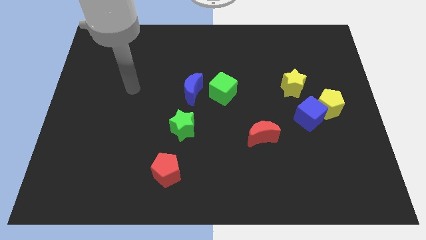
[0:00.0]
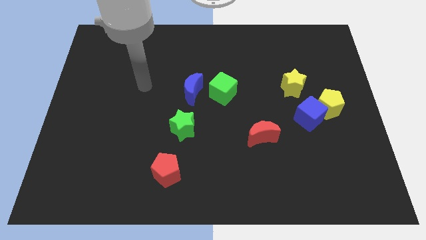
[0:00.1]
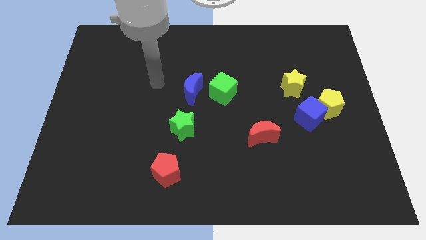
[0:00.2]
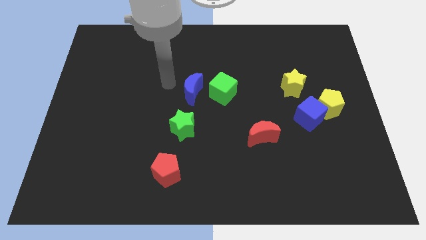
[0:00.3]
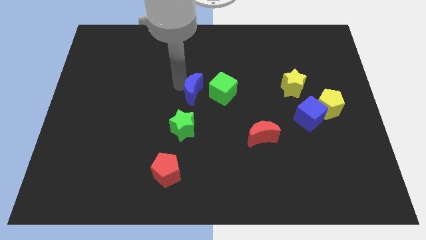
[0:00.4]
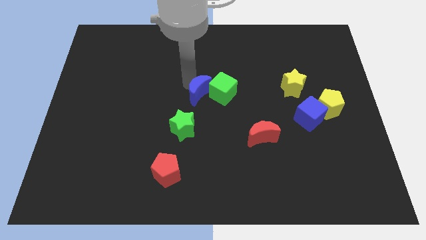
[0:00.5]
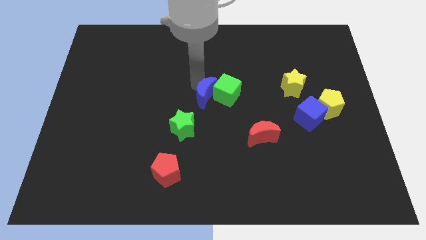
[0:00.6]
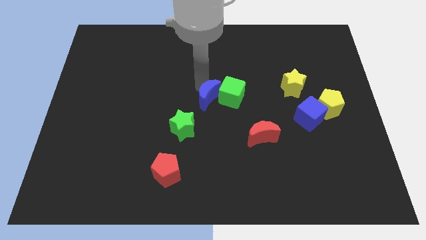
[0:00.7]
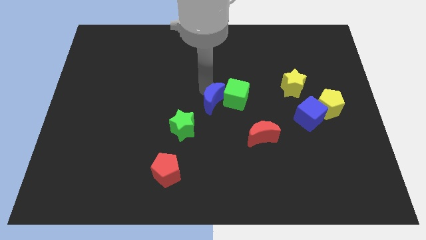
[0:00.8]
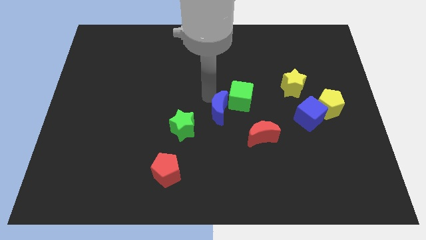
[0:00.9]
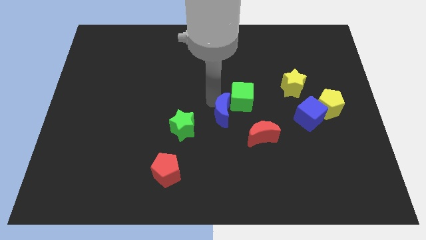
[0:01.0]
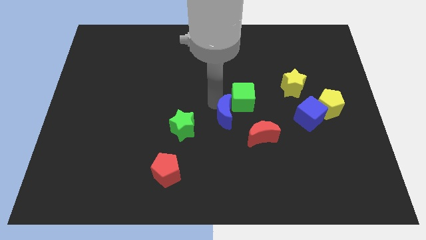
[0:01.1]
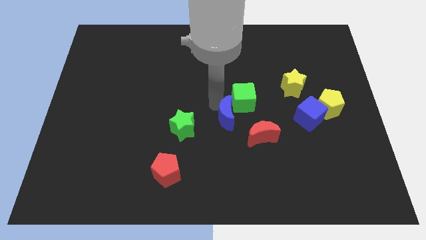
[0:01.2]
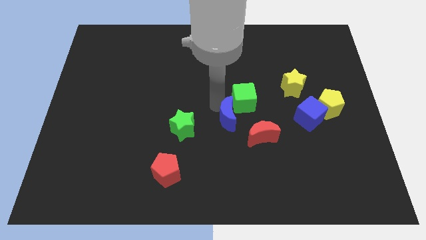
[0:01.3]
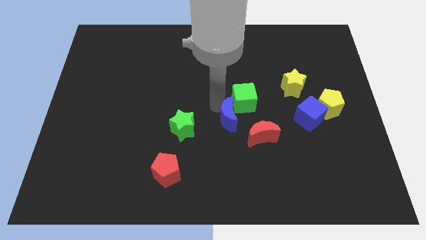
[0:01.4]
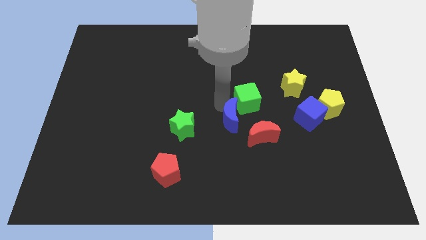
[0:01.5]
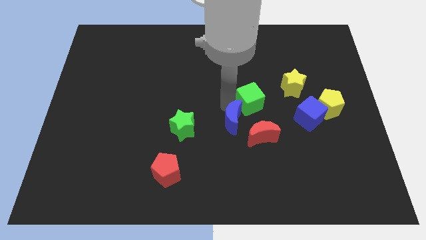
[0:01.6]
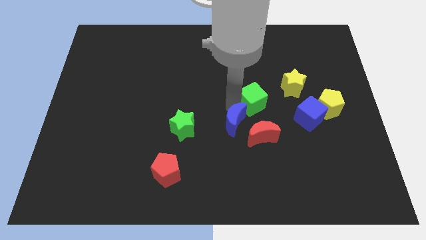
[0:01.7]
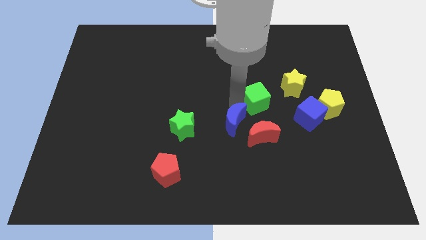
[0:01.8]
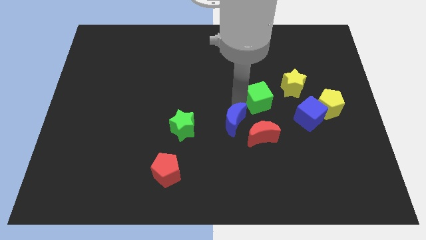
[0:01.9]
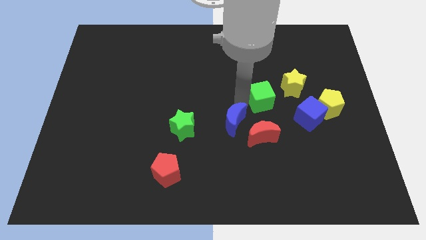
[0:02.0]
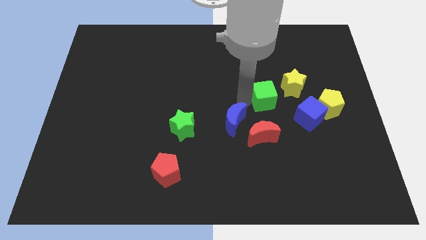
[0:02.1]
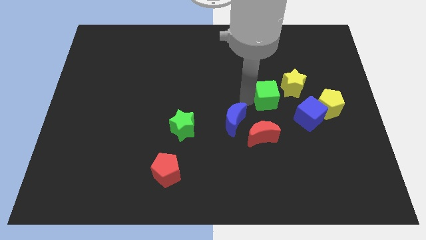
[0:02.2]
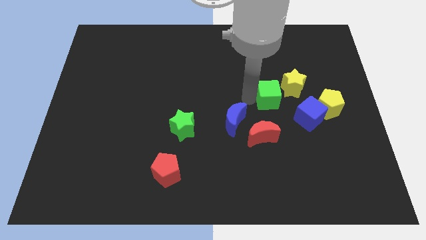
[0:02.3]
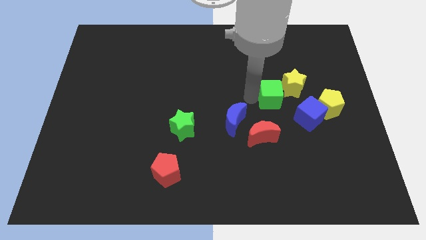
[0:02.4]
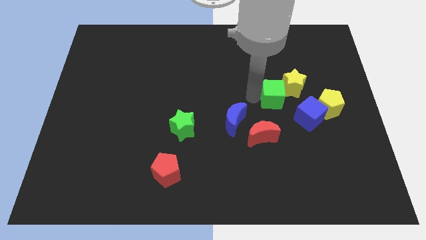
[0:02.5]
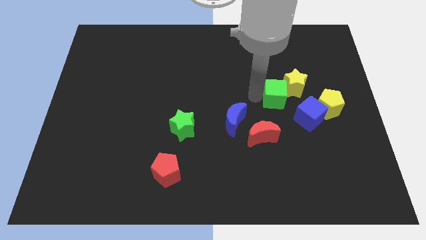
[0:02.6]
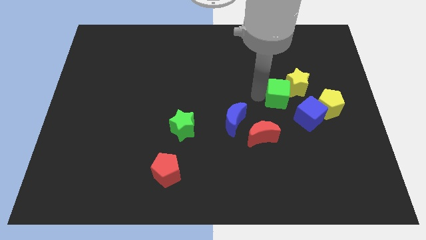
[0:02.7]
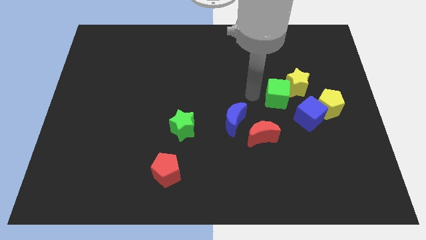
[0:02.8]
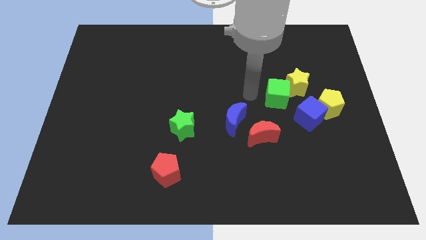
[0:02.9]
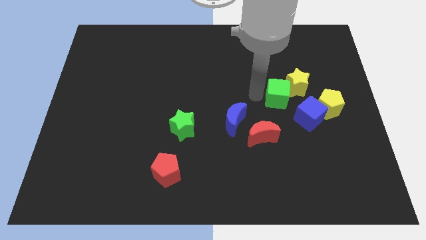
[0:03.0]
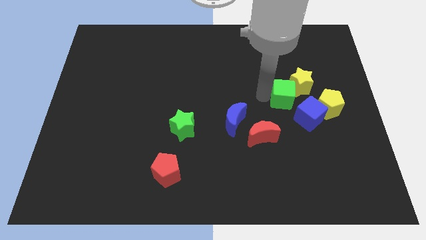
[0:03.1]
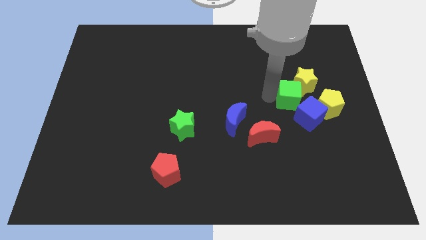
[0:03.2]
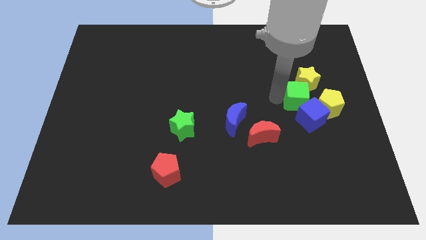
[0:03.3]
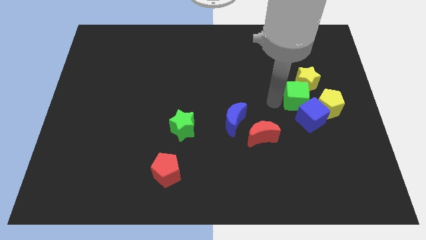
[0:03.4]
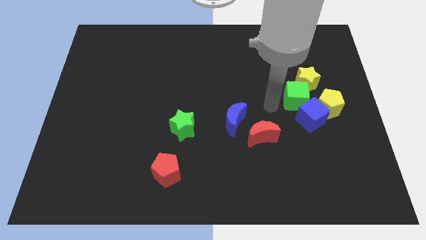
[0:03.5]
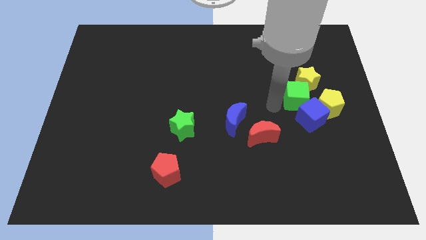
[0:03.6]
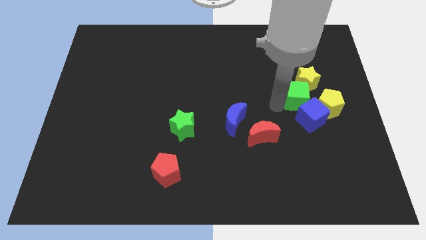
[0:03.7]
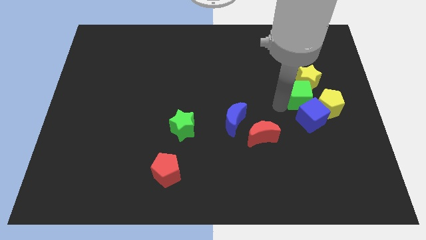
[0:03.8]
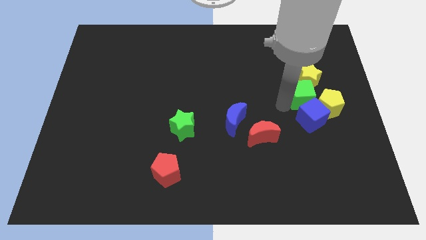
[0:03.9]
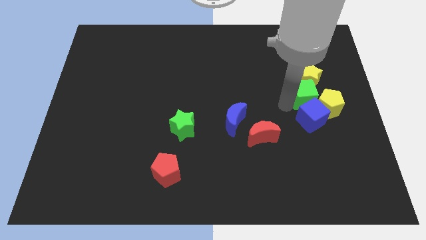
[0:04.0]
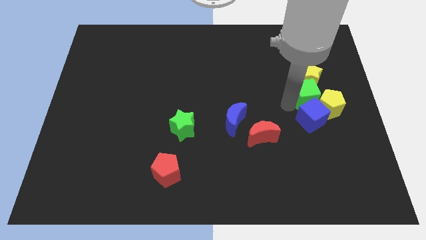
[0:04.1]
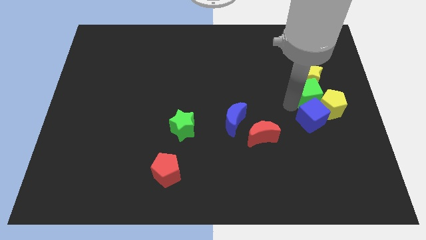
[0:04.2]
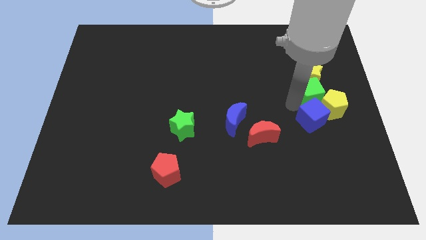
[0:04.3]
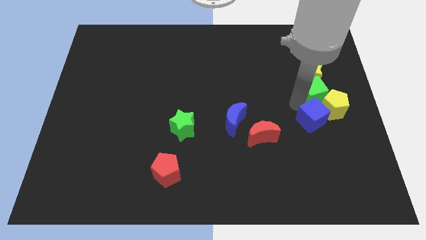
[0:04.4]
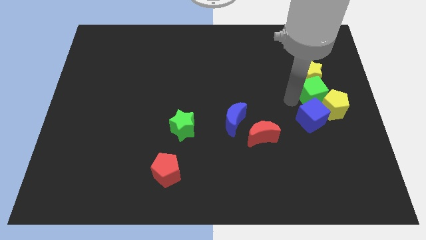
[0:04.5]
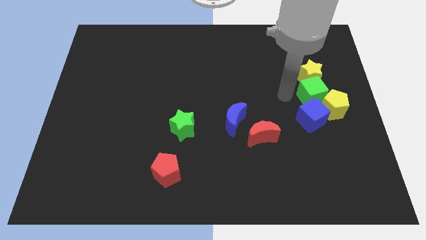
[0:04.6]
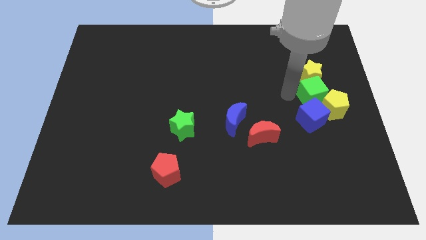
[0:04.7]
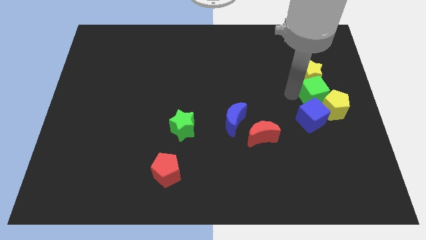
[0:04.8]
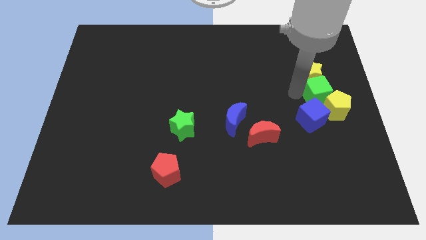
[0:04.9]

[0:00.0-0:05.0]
move the green cube to the right side of the board
